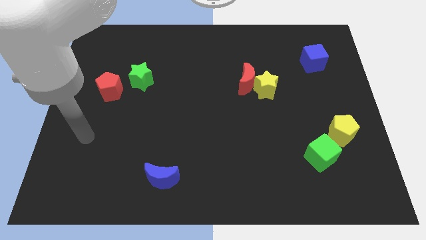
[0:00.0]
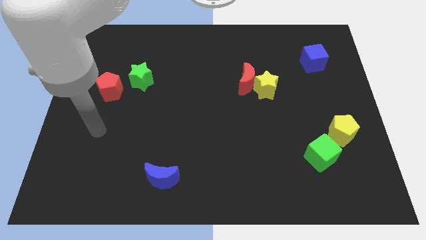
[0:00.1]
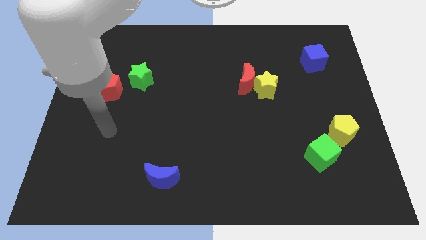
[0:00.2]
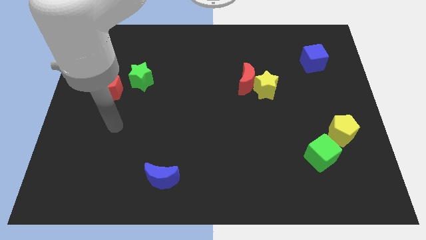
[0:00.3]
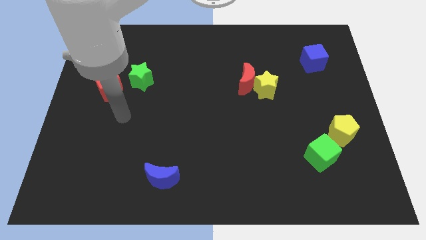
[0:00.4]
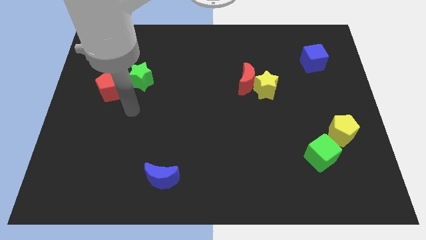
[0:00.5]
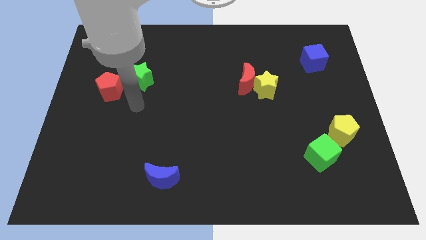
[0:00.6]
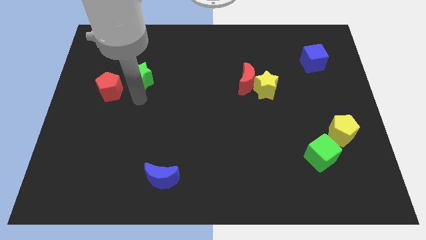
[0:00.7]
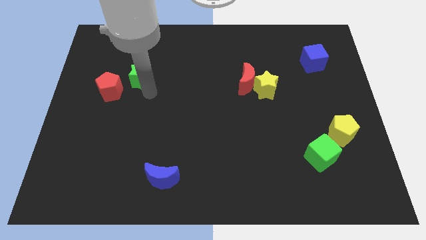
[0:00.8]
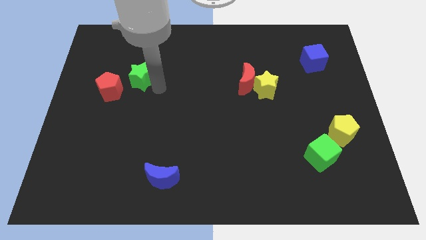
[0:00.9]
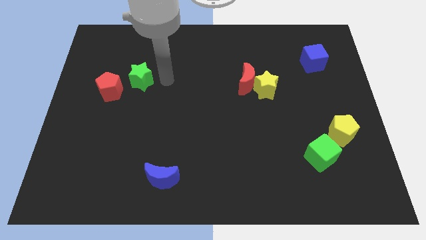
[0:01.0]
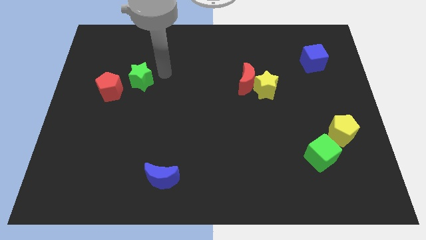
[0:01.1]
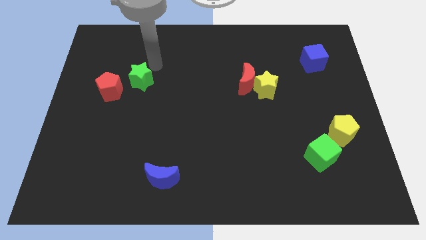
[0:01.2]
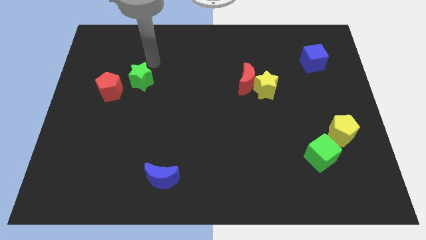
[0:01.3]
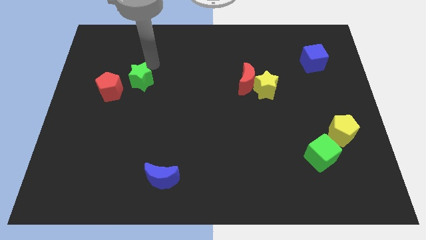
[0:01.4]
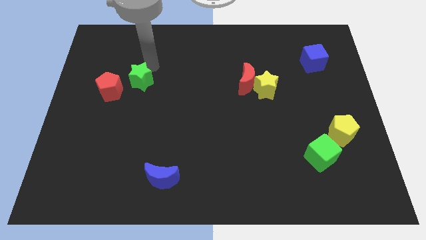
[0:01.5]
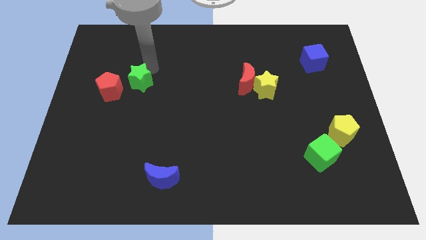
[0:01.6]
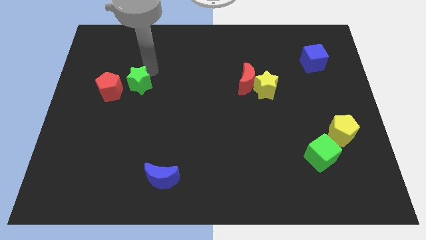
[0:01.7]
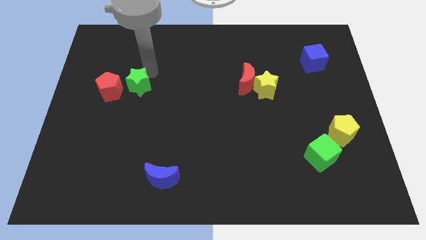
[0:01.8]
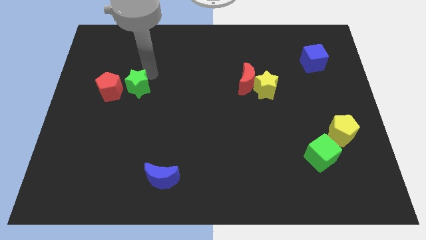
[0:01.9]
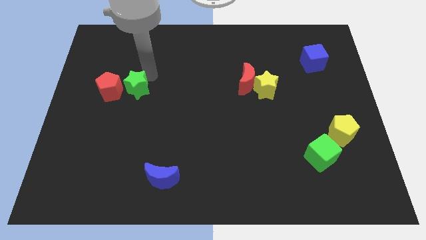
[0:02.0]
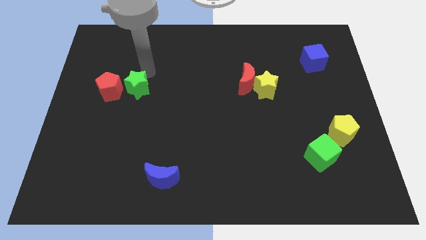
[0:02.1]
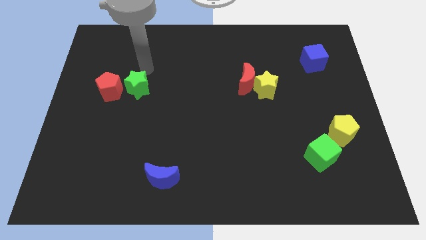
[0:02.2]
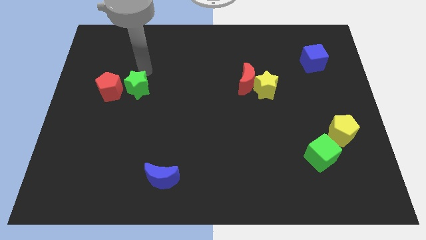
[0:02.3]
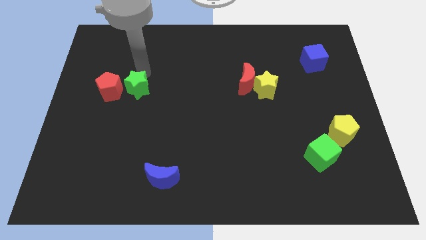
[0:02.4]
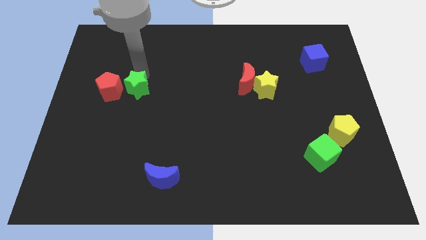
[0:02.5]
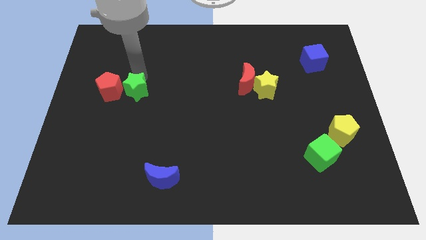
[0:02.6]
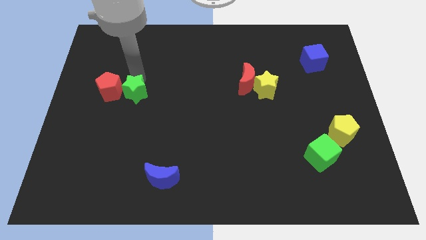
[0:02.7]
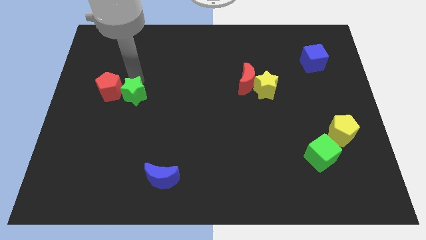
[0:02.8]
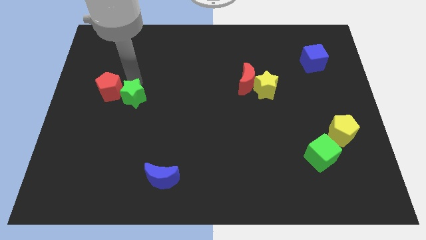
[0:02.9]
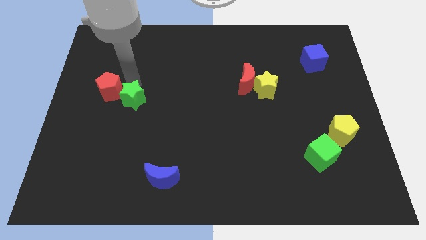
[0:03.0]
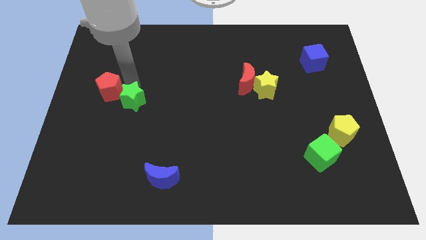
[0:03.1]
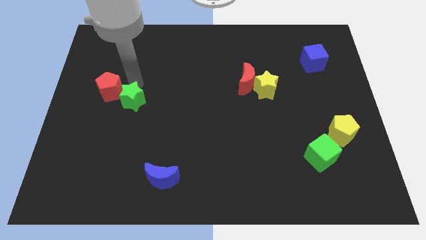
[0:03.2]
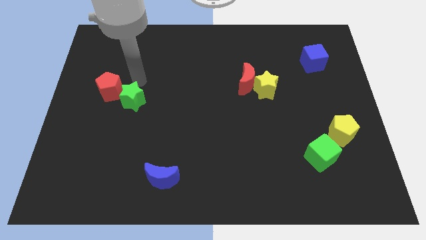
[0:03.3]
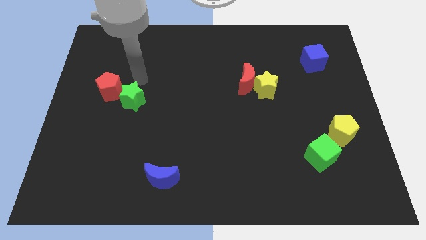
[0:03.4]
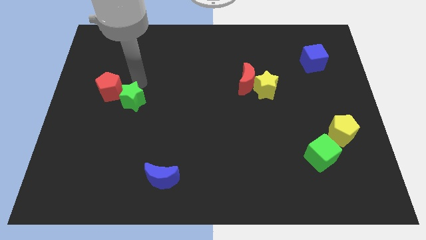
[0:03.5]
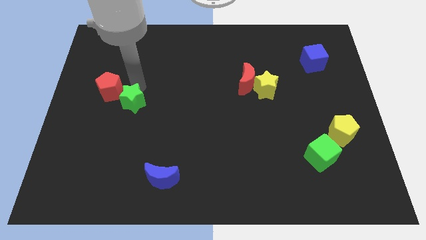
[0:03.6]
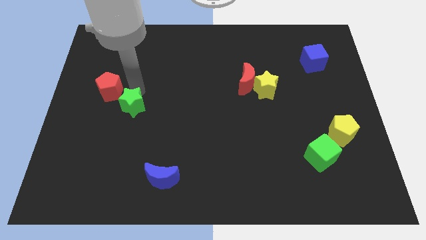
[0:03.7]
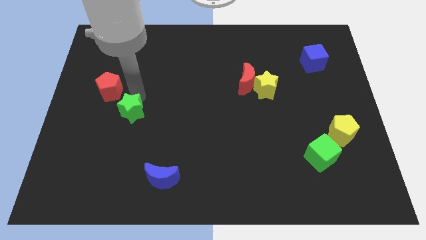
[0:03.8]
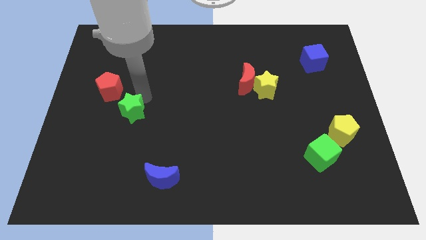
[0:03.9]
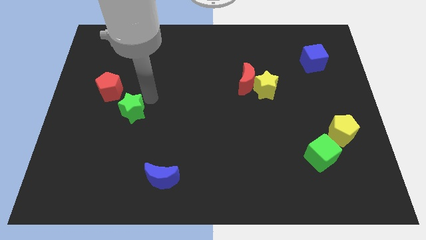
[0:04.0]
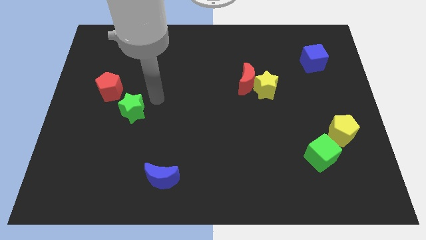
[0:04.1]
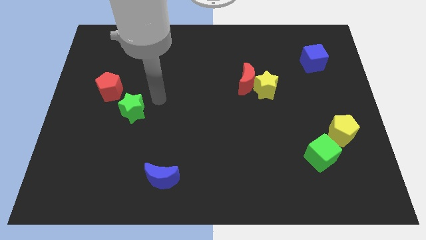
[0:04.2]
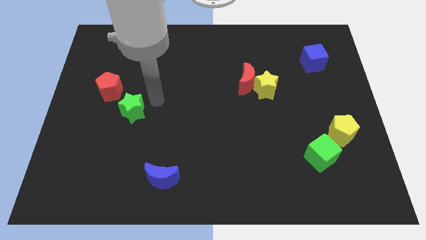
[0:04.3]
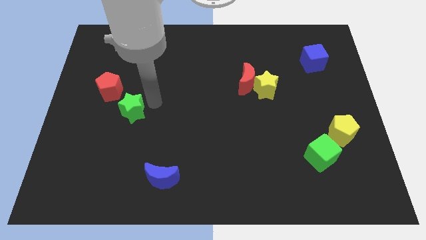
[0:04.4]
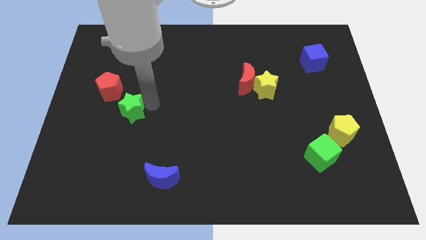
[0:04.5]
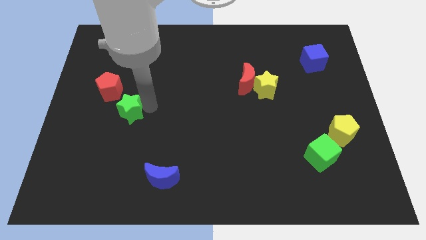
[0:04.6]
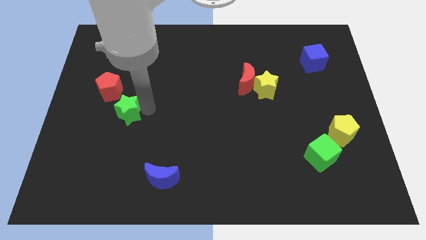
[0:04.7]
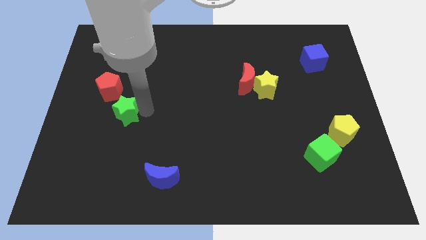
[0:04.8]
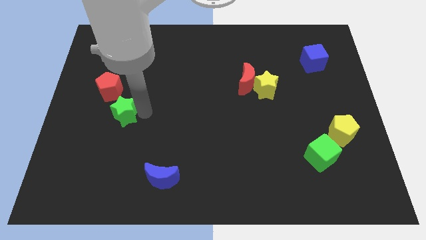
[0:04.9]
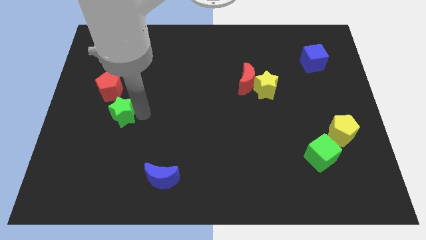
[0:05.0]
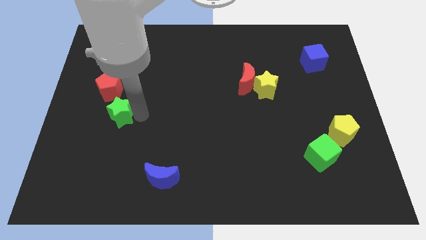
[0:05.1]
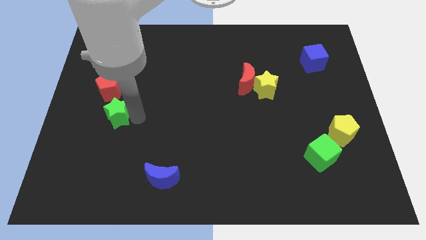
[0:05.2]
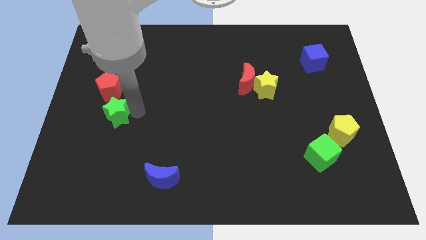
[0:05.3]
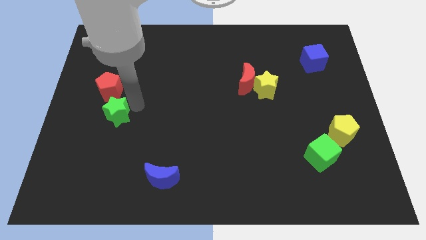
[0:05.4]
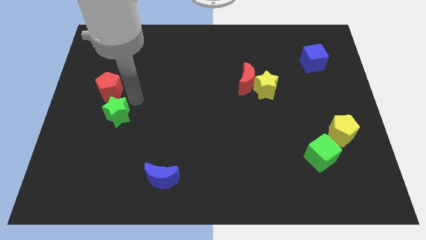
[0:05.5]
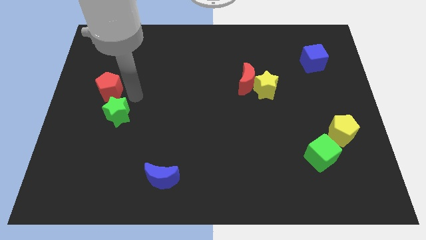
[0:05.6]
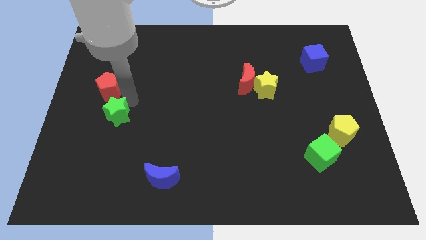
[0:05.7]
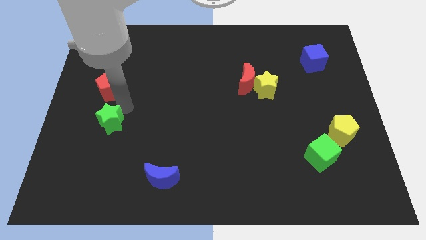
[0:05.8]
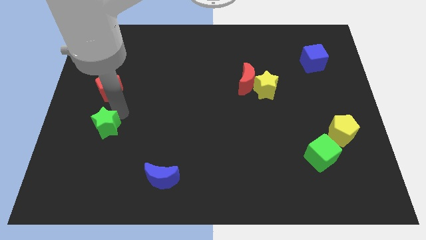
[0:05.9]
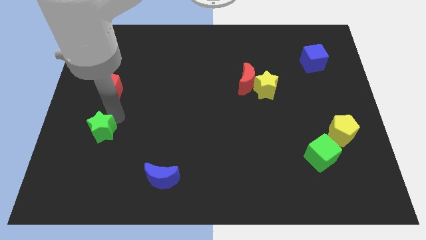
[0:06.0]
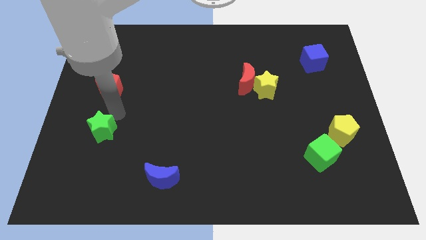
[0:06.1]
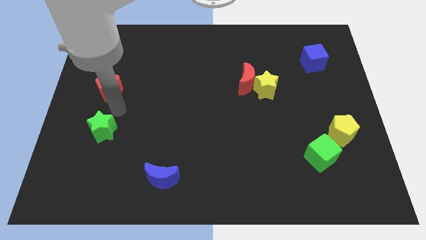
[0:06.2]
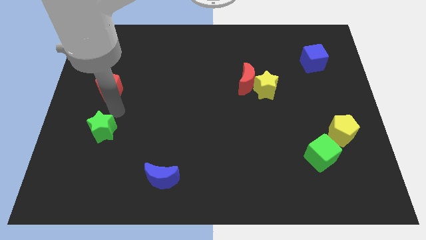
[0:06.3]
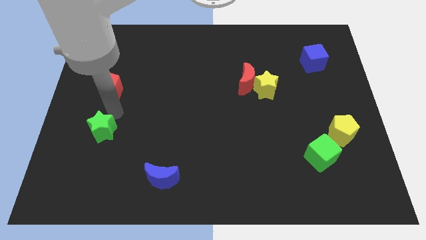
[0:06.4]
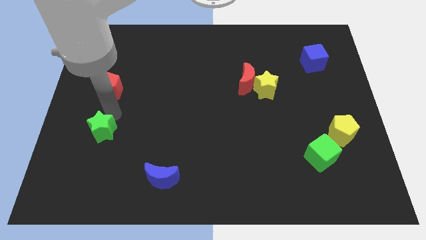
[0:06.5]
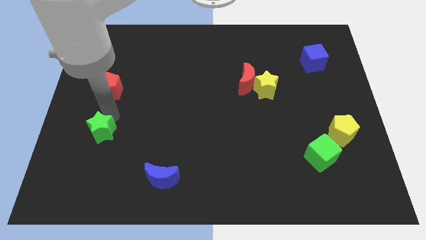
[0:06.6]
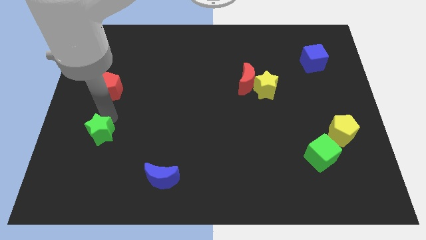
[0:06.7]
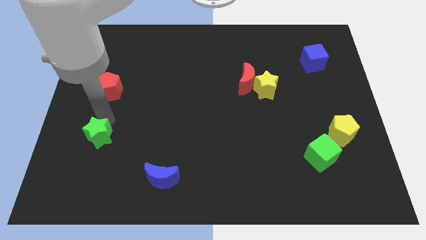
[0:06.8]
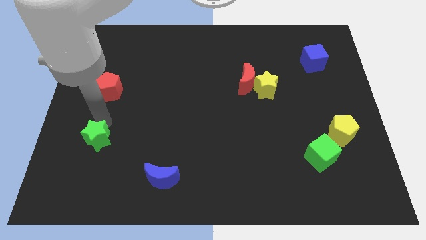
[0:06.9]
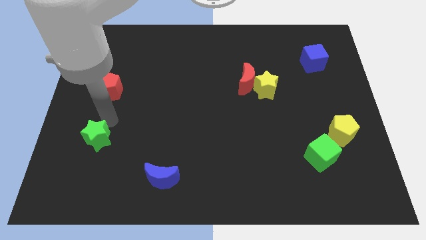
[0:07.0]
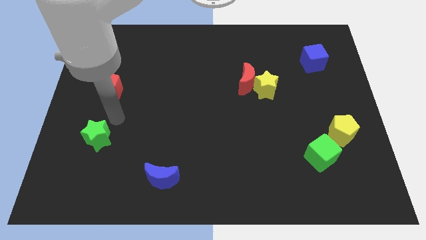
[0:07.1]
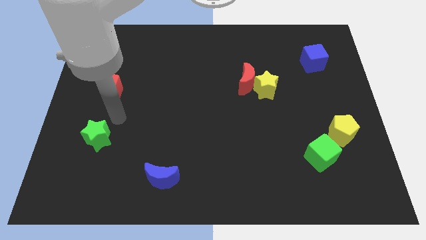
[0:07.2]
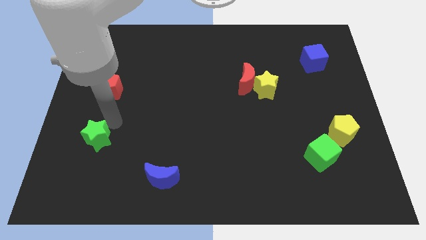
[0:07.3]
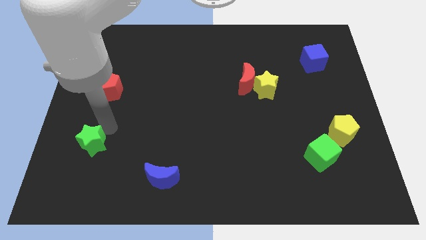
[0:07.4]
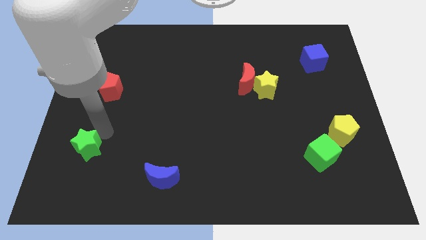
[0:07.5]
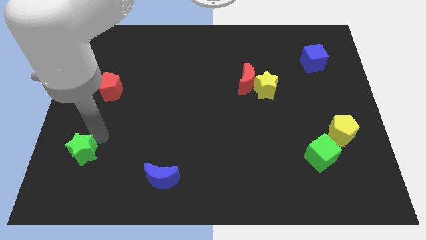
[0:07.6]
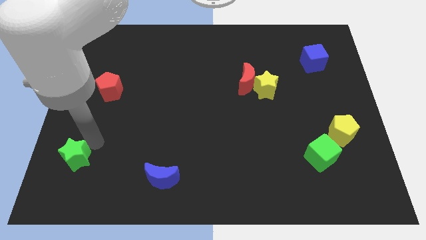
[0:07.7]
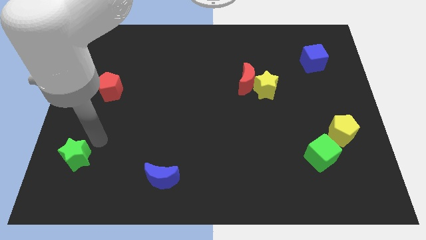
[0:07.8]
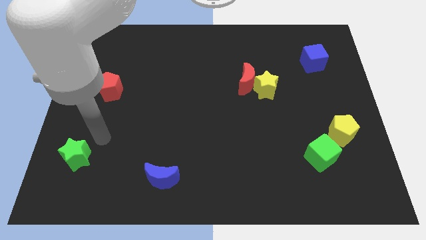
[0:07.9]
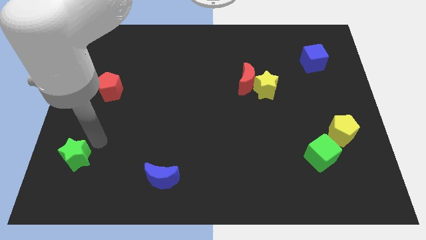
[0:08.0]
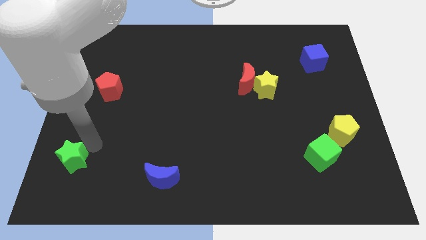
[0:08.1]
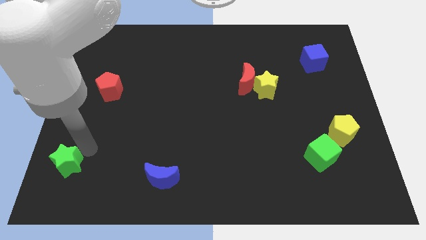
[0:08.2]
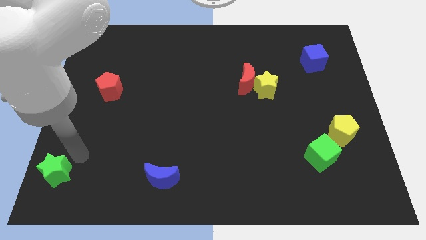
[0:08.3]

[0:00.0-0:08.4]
push the green star to the bottom left of the board
